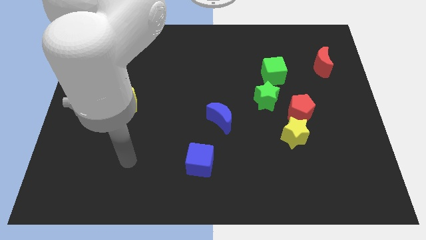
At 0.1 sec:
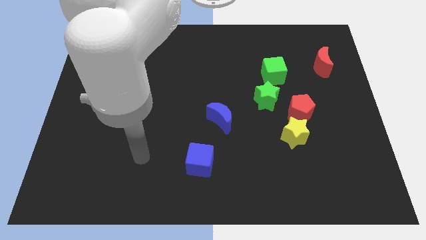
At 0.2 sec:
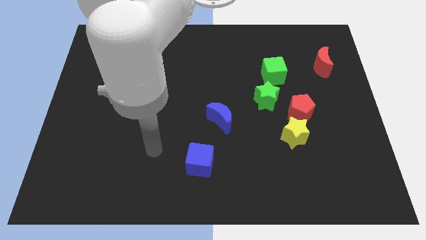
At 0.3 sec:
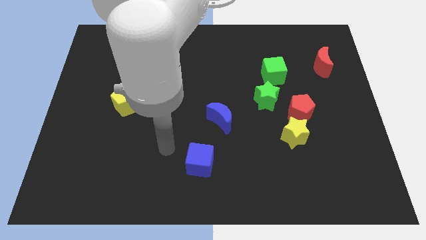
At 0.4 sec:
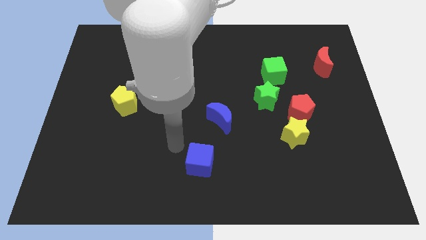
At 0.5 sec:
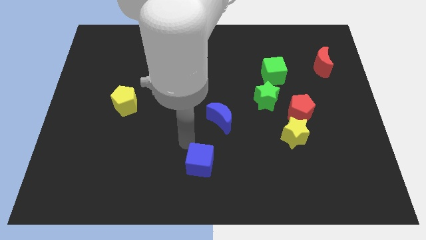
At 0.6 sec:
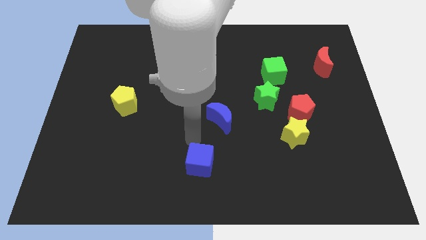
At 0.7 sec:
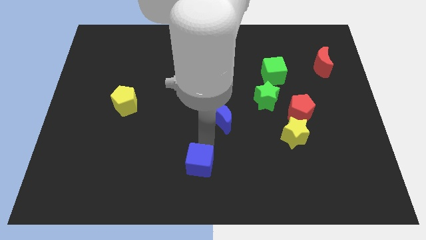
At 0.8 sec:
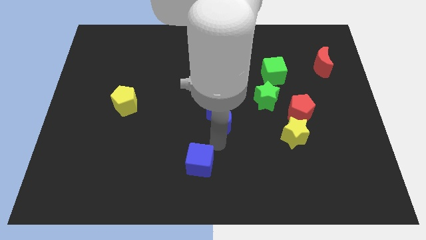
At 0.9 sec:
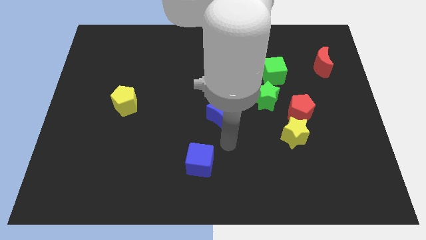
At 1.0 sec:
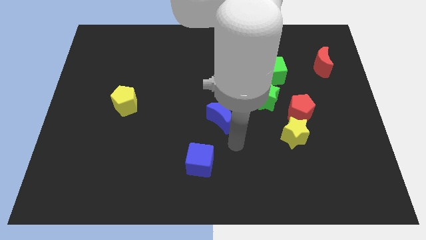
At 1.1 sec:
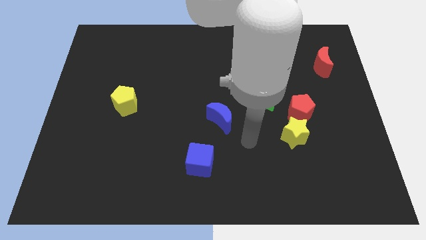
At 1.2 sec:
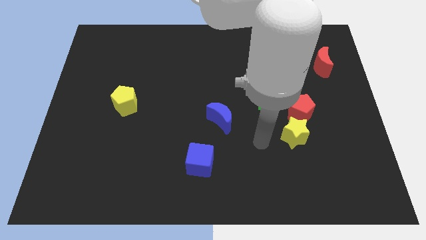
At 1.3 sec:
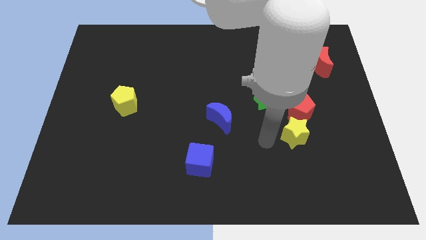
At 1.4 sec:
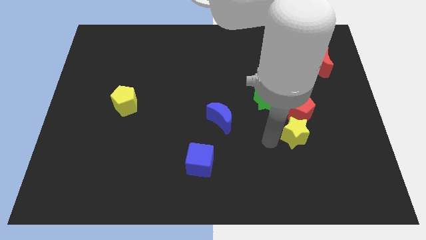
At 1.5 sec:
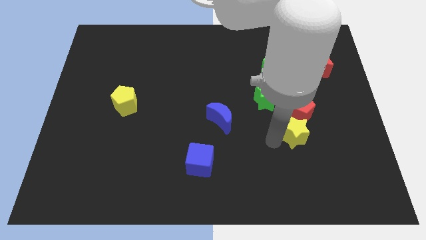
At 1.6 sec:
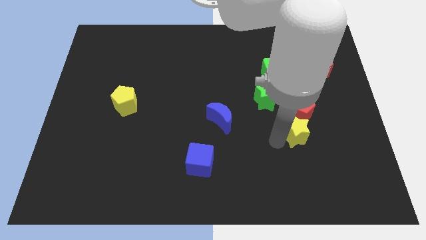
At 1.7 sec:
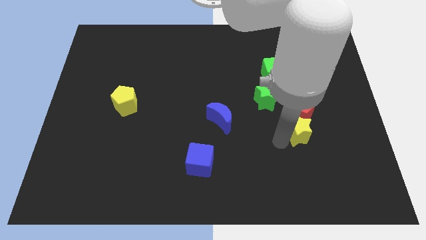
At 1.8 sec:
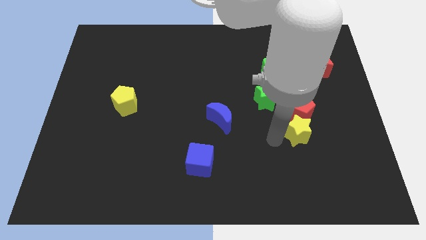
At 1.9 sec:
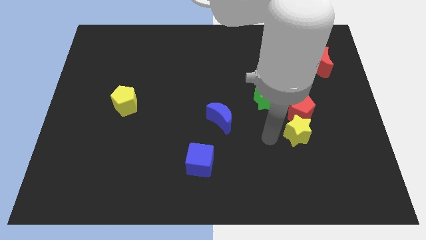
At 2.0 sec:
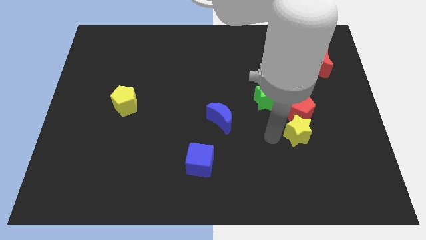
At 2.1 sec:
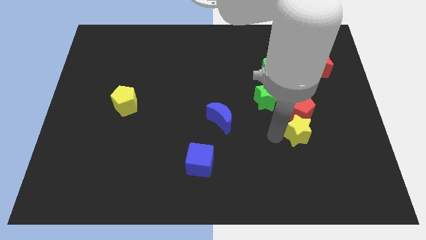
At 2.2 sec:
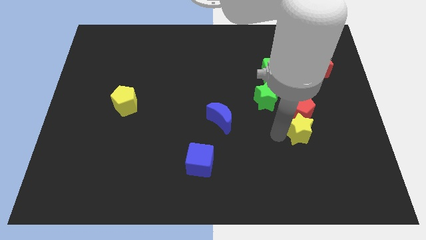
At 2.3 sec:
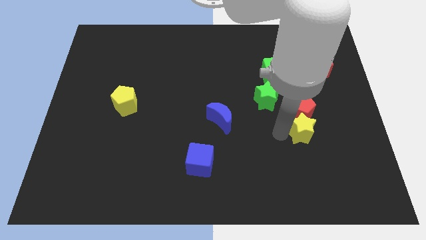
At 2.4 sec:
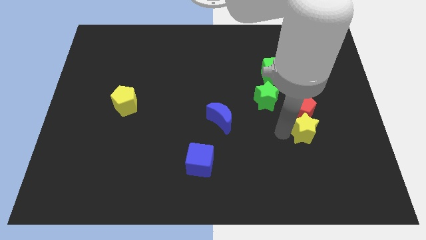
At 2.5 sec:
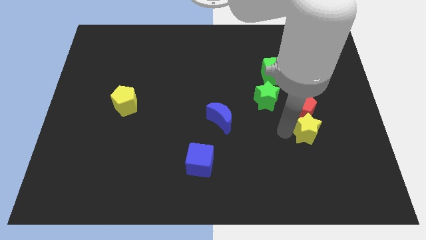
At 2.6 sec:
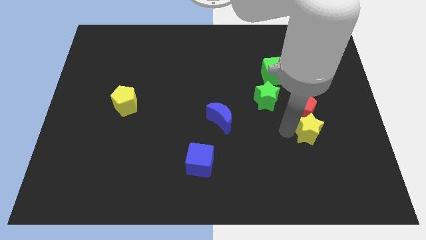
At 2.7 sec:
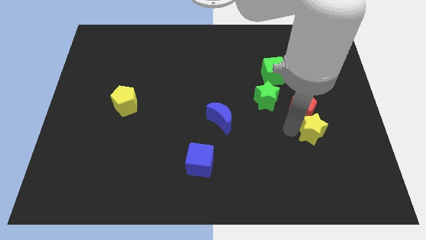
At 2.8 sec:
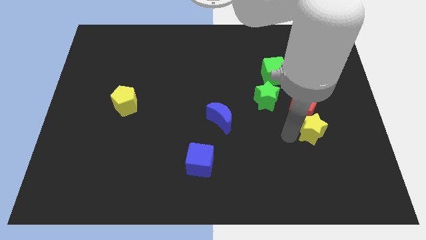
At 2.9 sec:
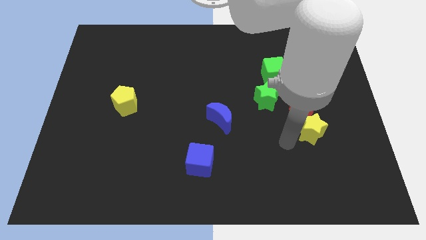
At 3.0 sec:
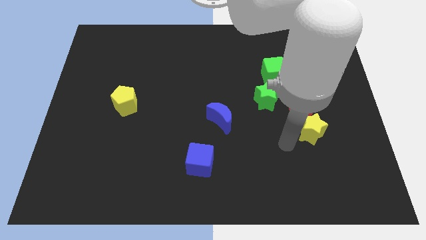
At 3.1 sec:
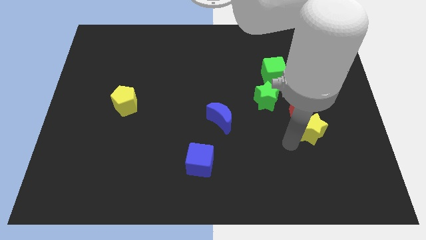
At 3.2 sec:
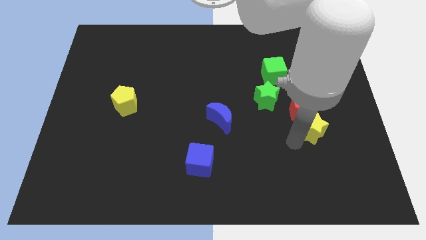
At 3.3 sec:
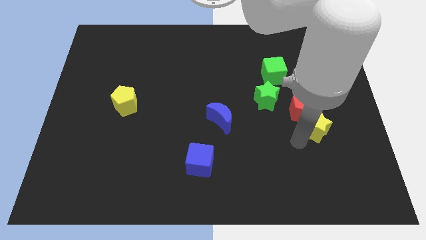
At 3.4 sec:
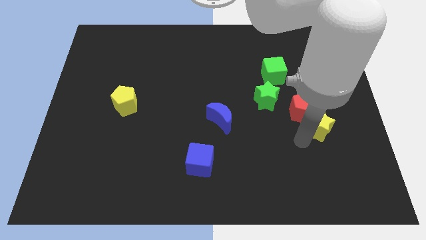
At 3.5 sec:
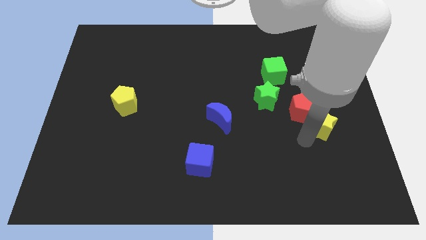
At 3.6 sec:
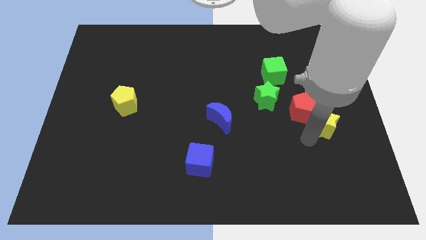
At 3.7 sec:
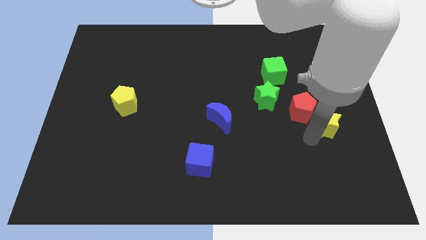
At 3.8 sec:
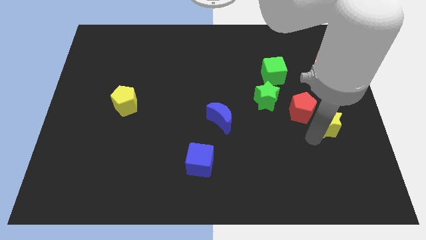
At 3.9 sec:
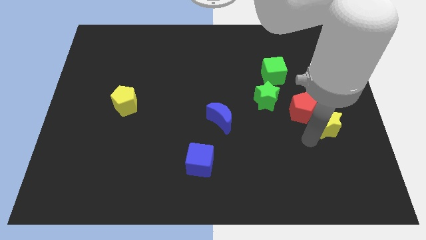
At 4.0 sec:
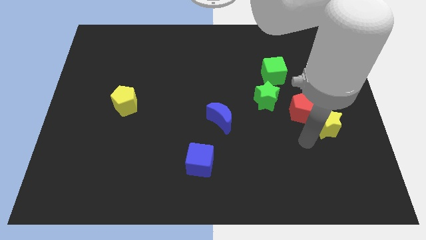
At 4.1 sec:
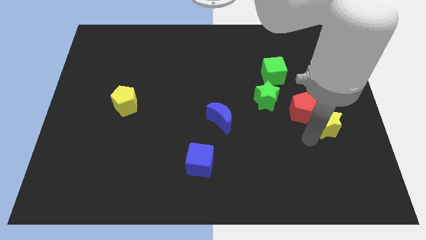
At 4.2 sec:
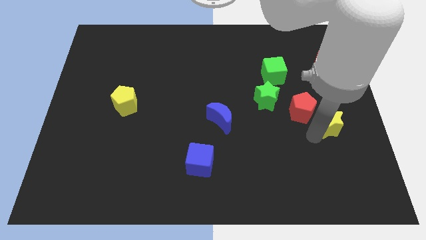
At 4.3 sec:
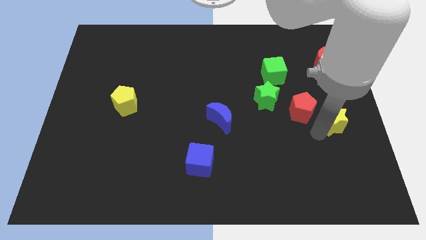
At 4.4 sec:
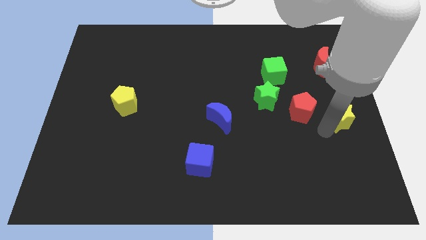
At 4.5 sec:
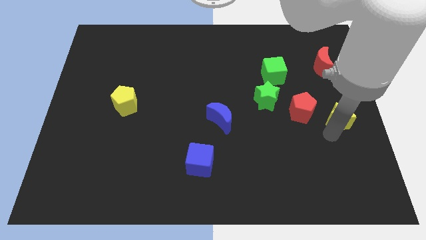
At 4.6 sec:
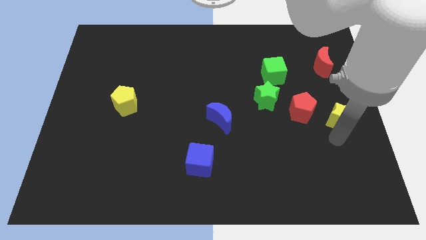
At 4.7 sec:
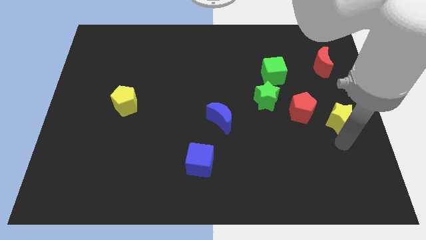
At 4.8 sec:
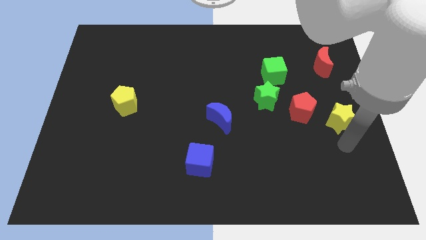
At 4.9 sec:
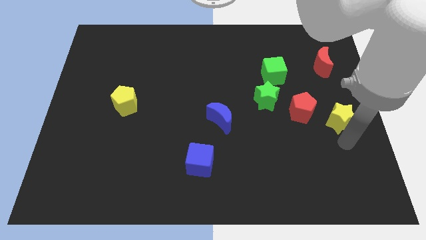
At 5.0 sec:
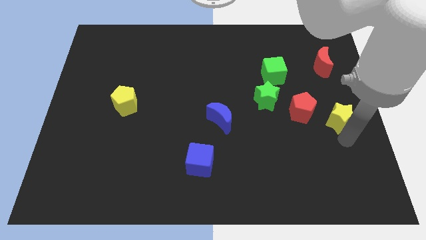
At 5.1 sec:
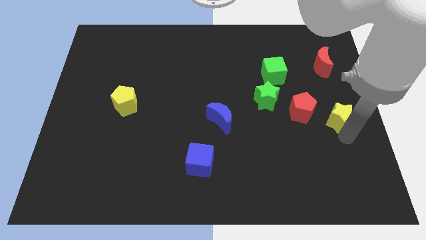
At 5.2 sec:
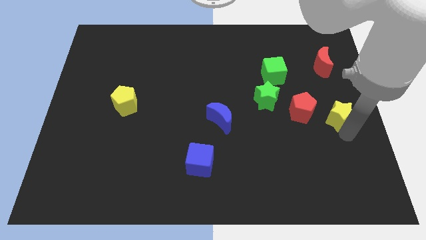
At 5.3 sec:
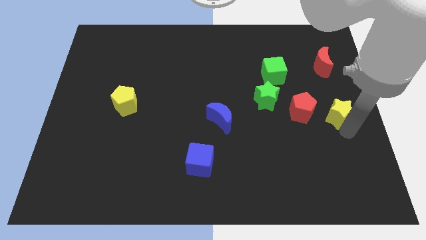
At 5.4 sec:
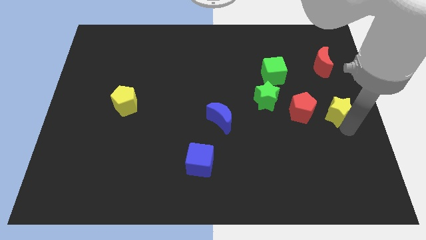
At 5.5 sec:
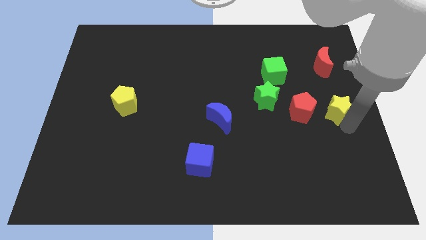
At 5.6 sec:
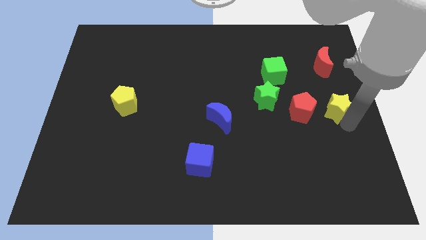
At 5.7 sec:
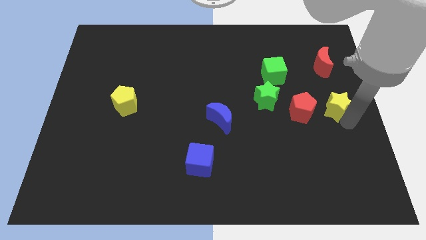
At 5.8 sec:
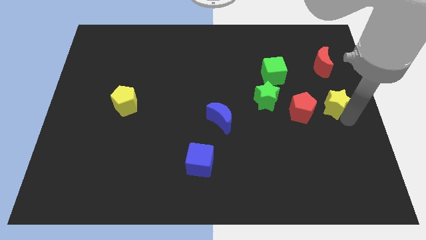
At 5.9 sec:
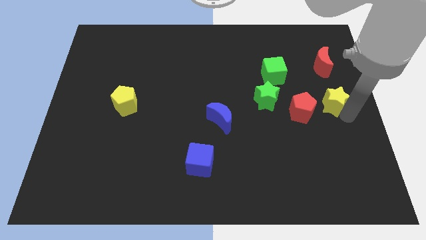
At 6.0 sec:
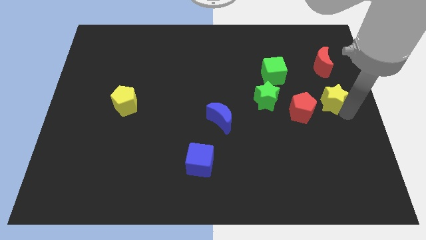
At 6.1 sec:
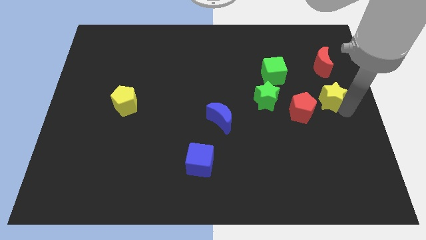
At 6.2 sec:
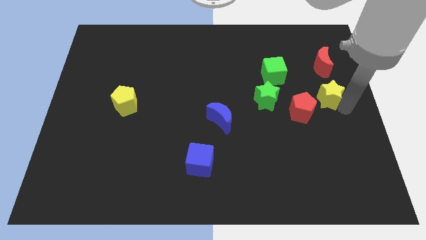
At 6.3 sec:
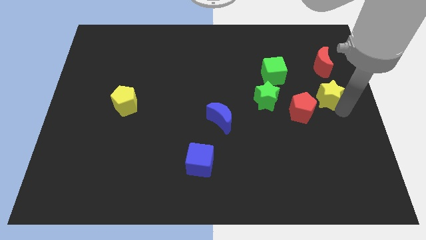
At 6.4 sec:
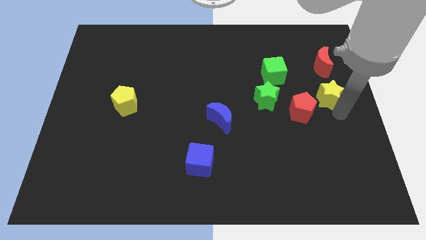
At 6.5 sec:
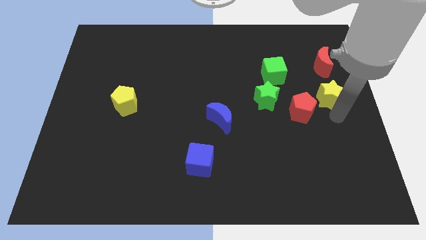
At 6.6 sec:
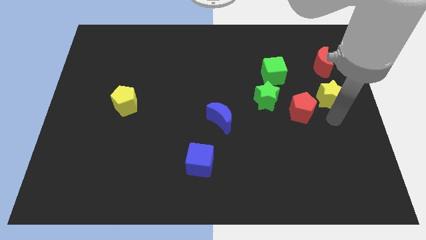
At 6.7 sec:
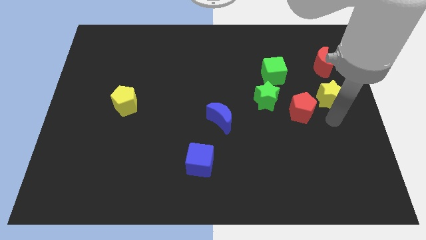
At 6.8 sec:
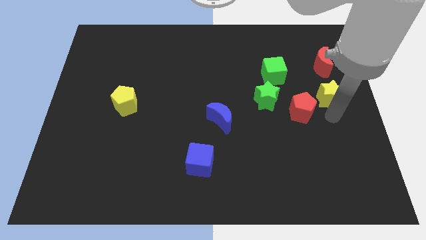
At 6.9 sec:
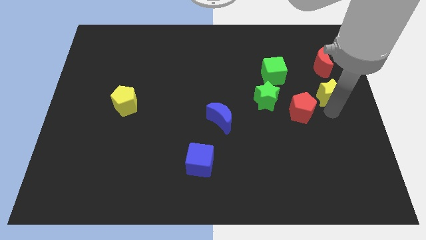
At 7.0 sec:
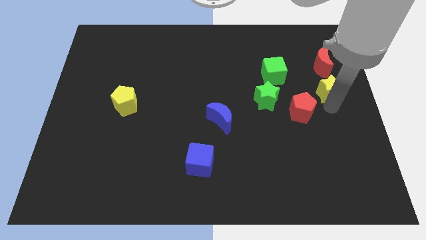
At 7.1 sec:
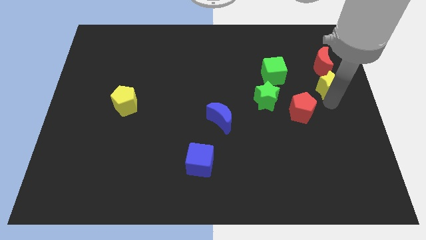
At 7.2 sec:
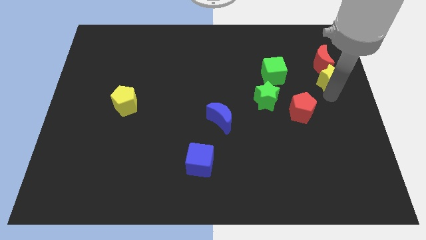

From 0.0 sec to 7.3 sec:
slide the yellow star next to the red moon

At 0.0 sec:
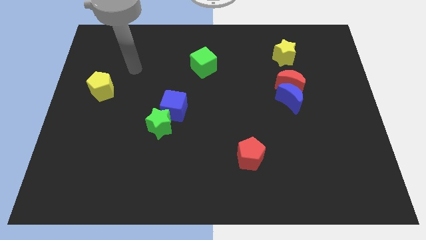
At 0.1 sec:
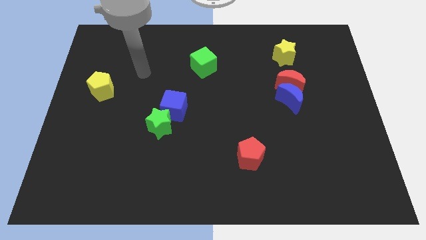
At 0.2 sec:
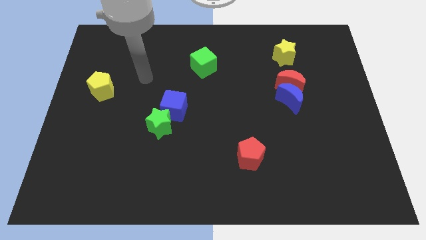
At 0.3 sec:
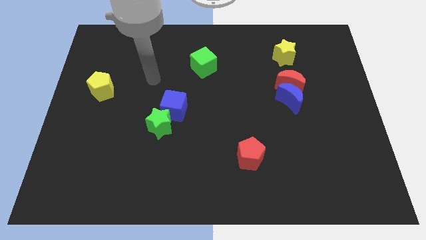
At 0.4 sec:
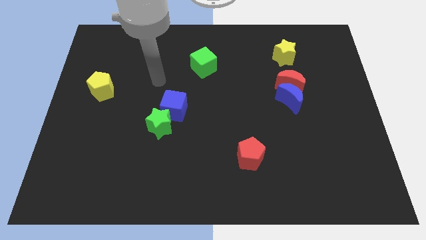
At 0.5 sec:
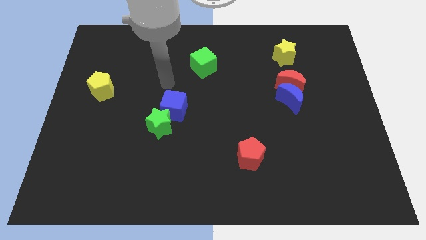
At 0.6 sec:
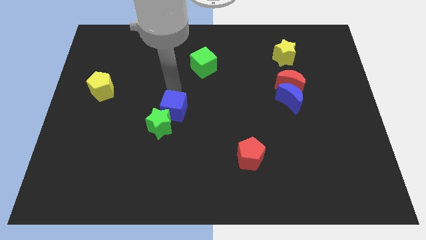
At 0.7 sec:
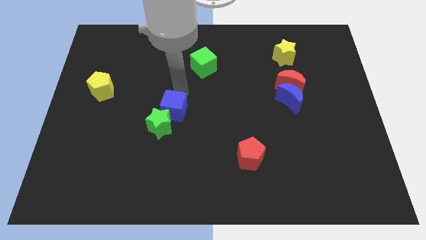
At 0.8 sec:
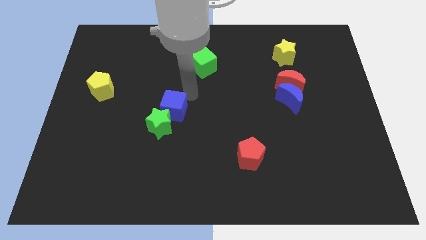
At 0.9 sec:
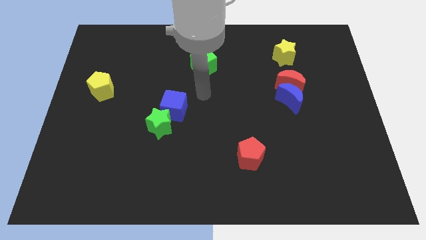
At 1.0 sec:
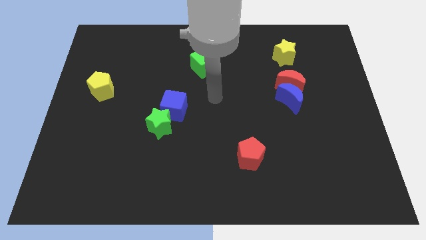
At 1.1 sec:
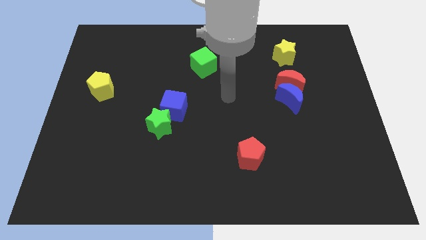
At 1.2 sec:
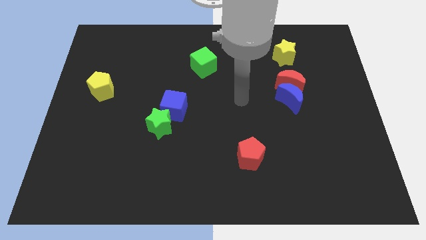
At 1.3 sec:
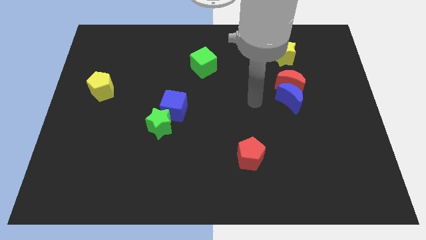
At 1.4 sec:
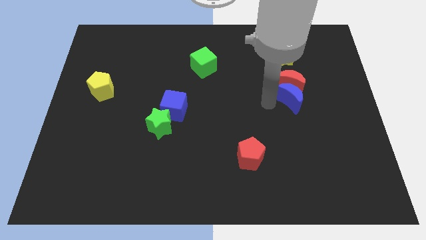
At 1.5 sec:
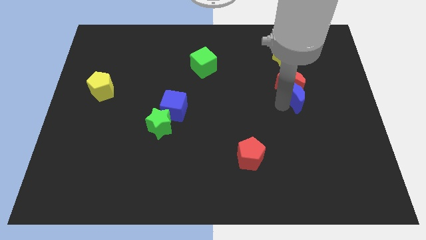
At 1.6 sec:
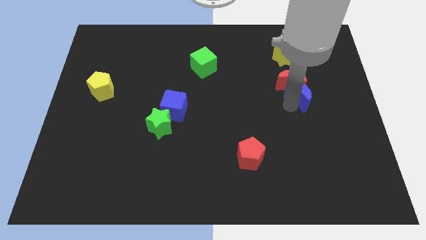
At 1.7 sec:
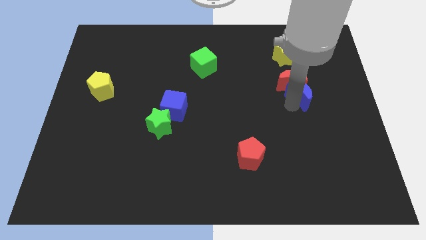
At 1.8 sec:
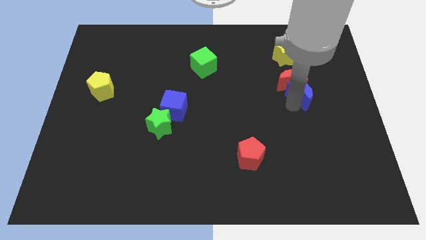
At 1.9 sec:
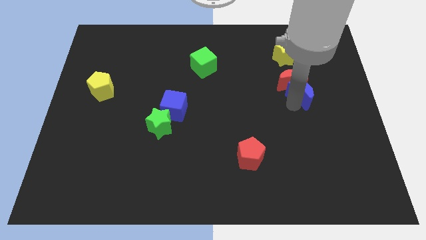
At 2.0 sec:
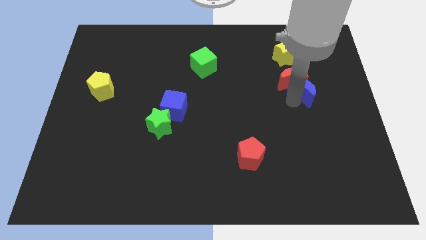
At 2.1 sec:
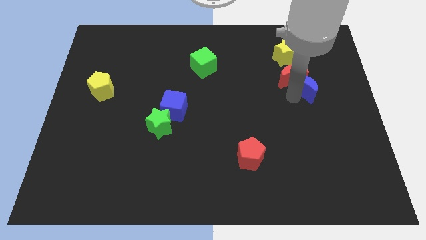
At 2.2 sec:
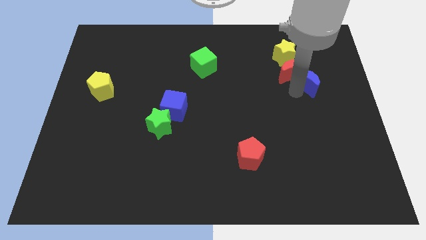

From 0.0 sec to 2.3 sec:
move the red moon to the yellow star
